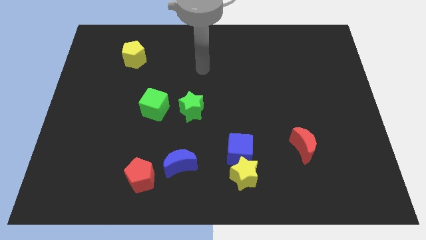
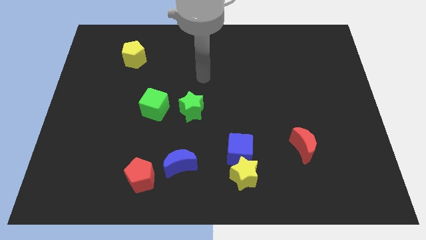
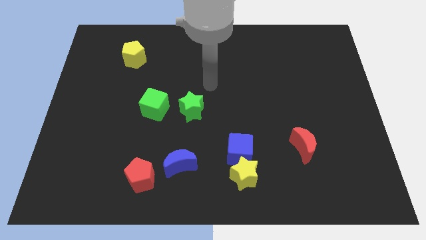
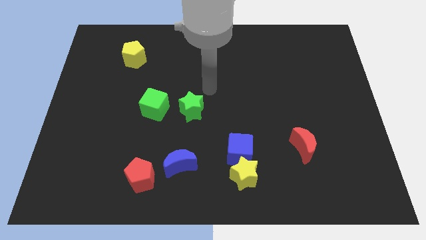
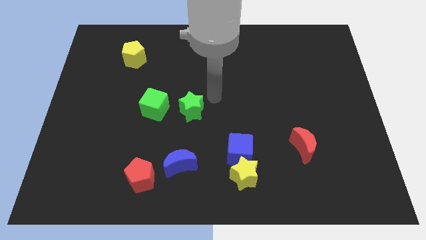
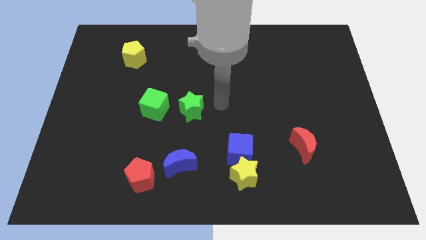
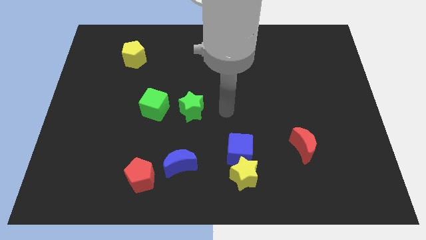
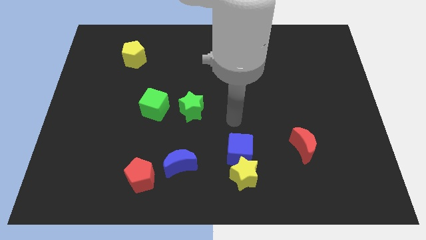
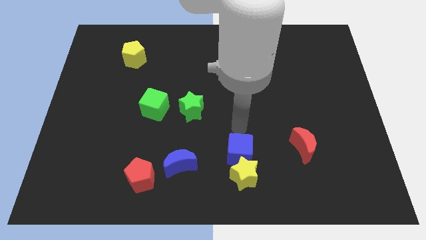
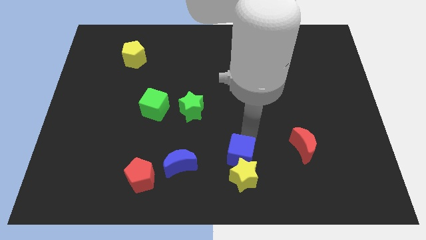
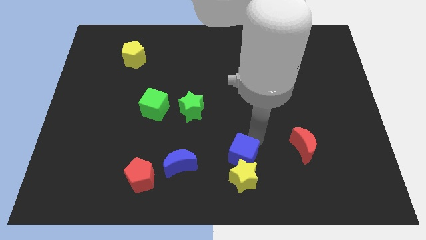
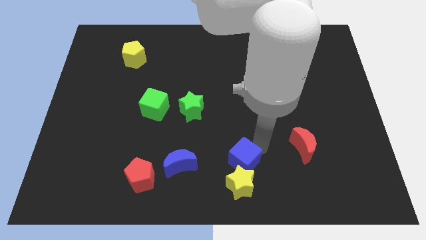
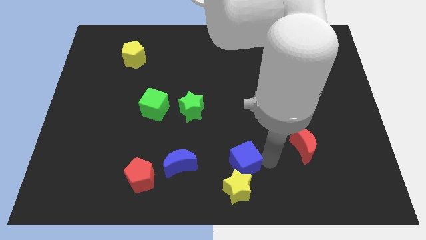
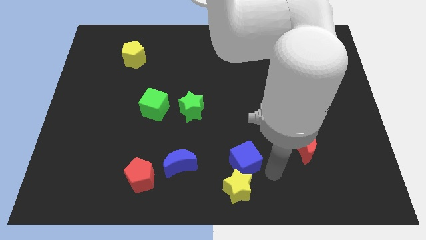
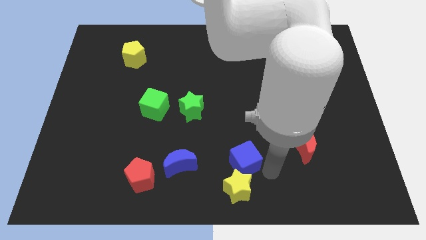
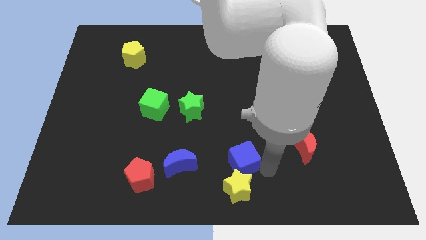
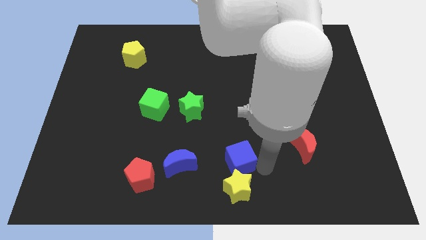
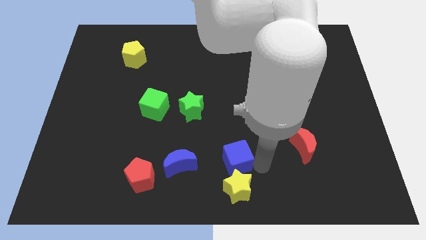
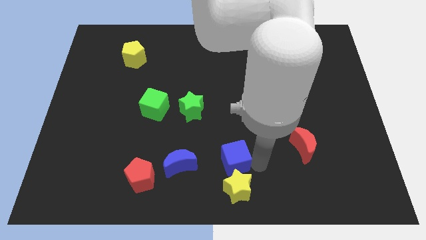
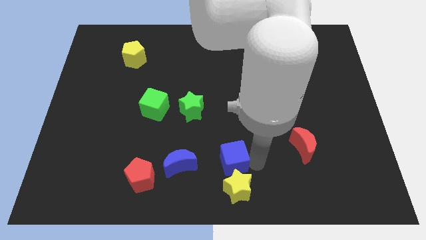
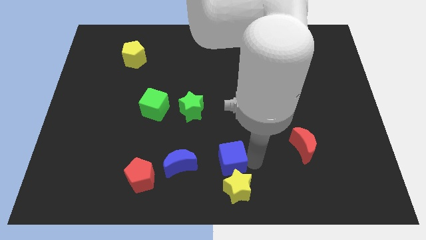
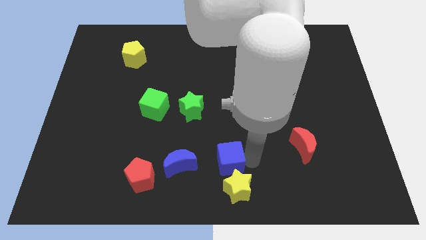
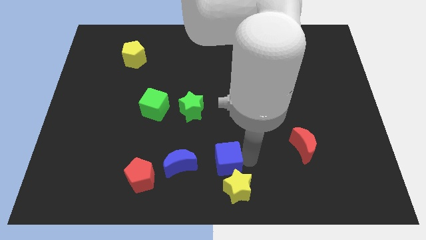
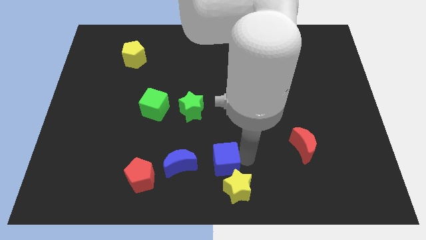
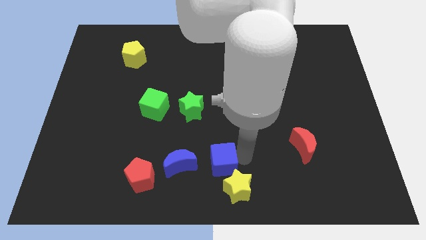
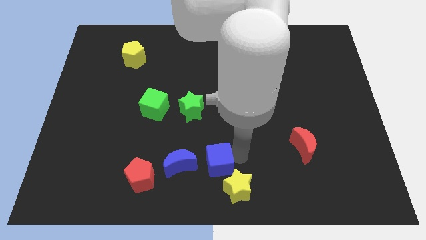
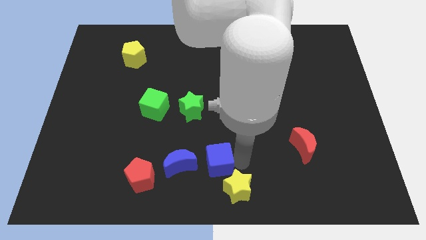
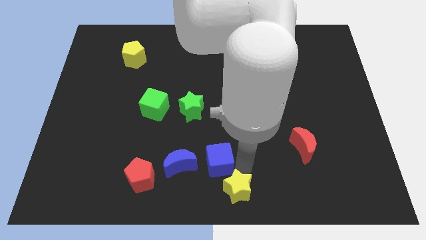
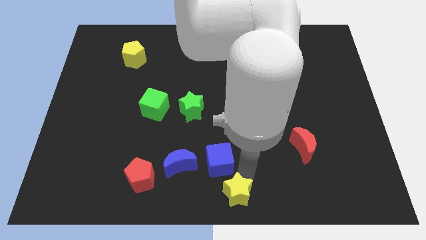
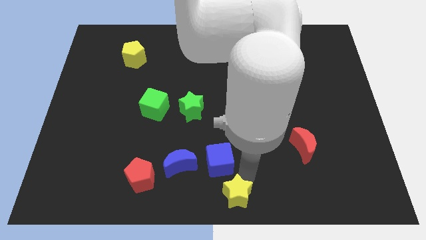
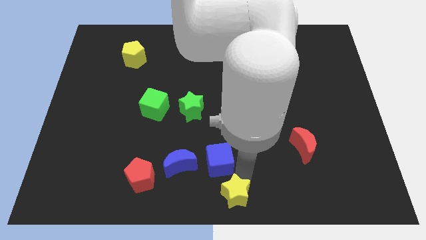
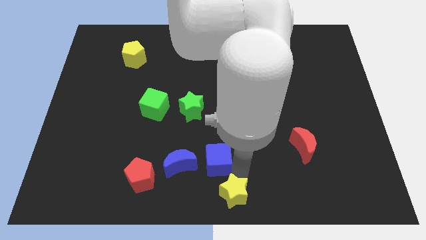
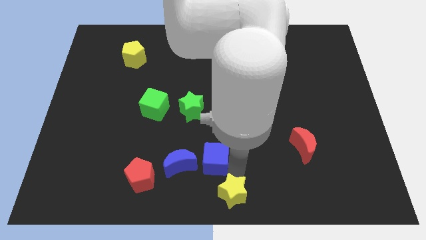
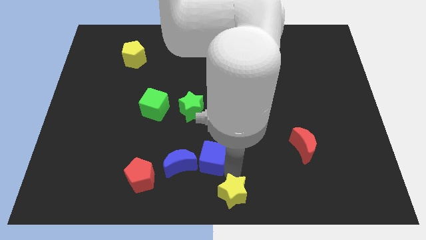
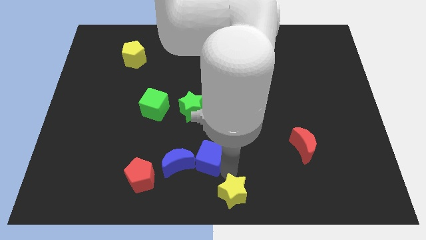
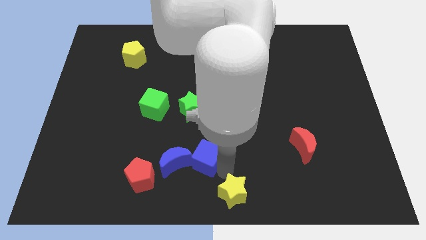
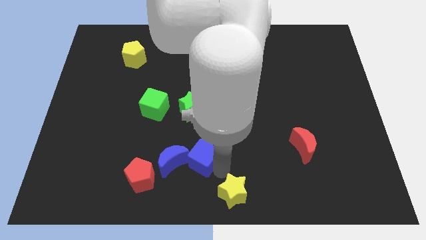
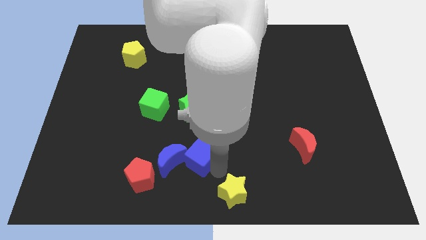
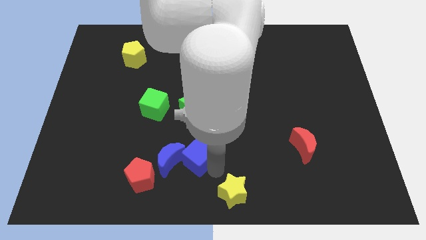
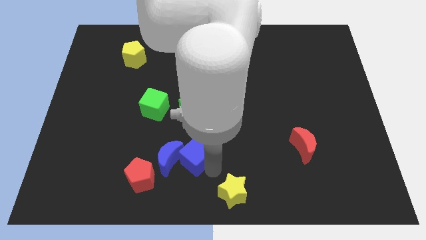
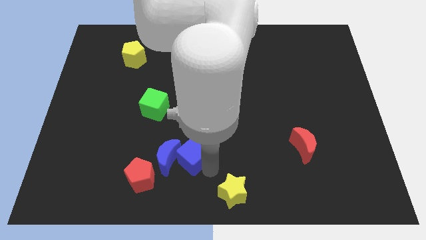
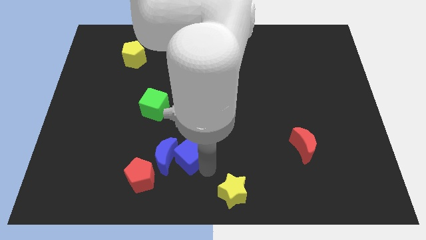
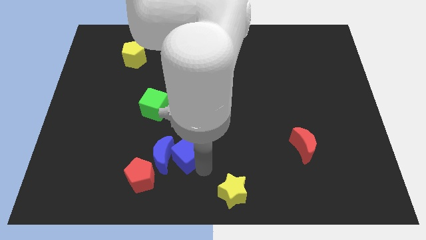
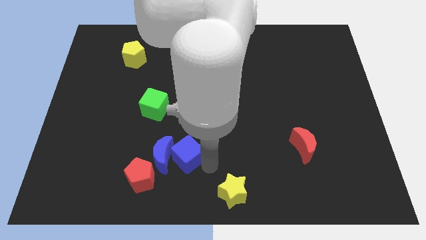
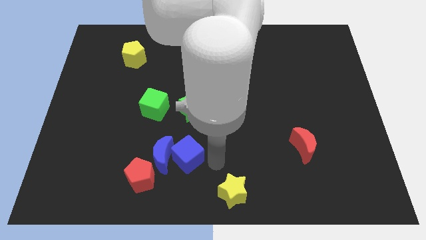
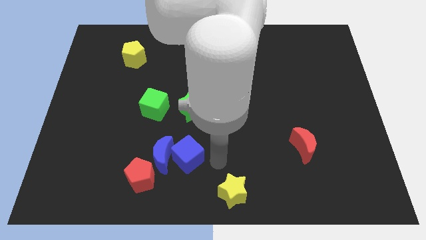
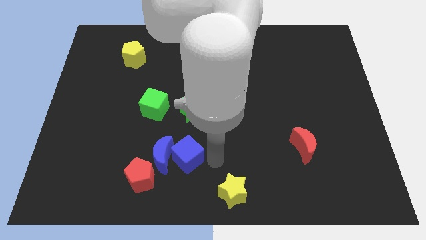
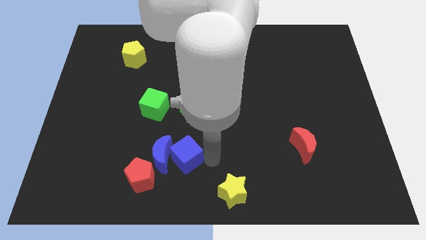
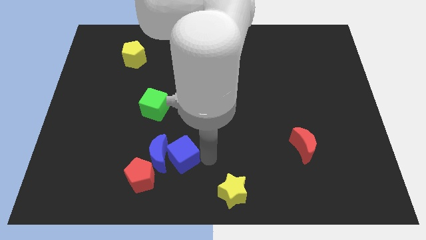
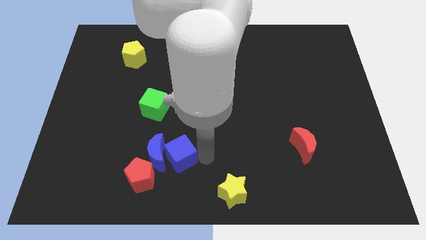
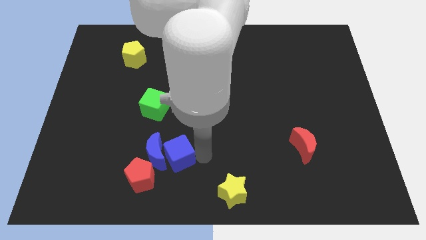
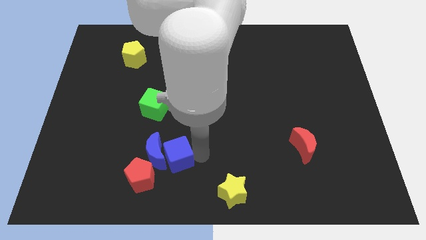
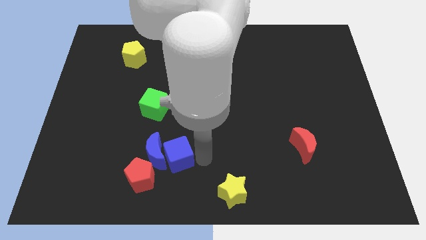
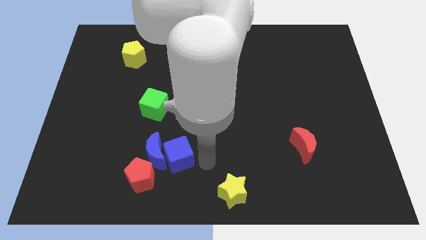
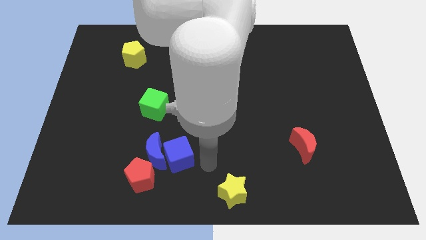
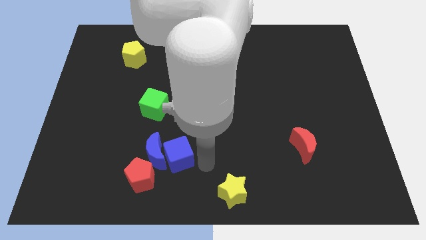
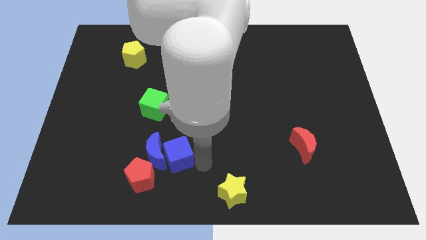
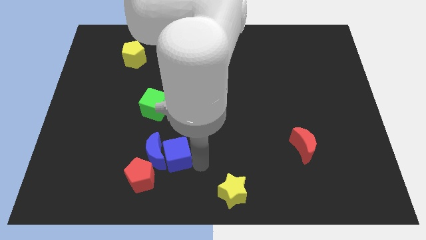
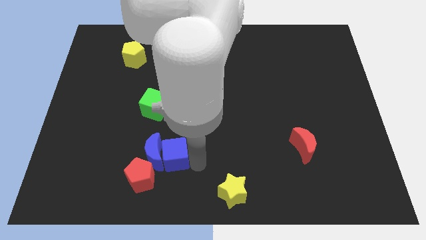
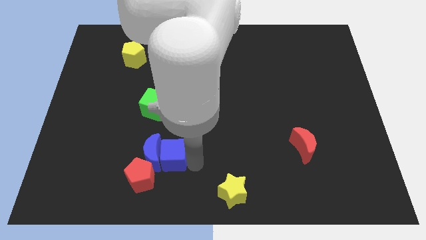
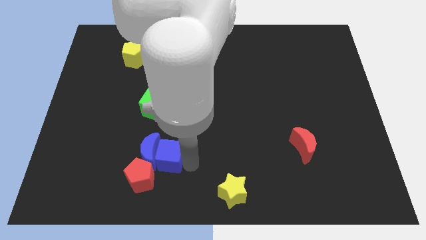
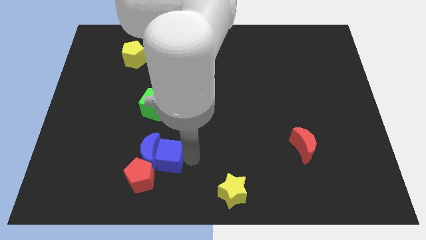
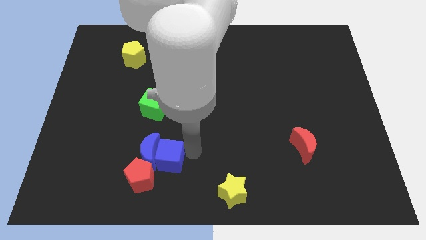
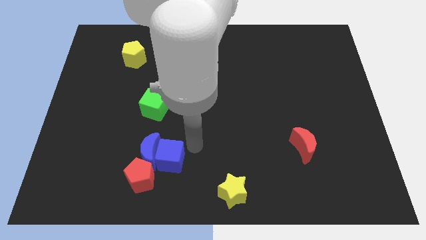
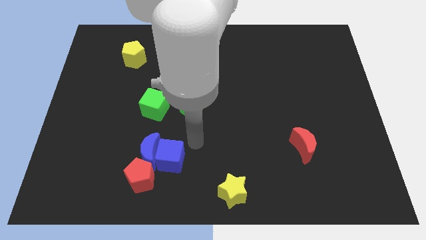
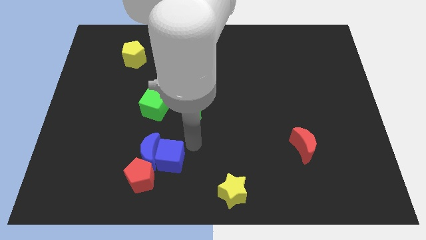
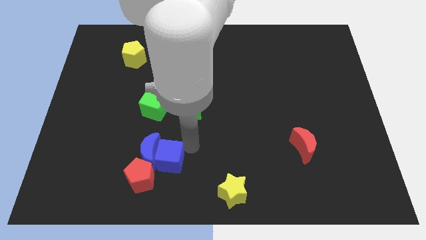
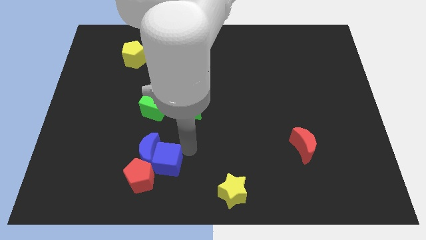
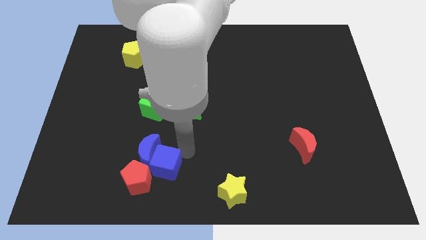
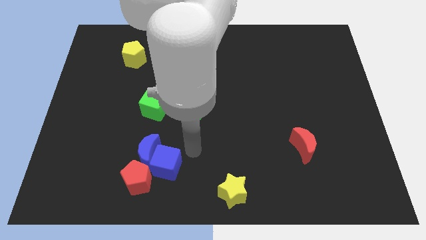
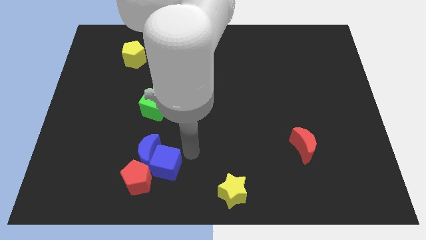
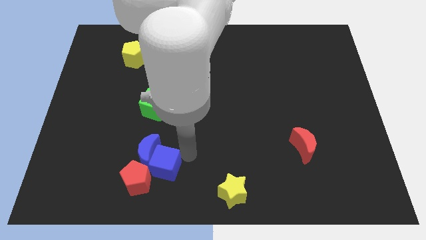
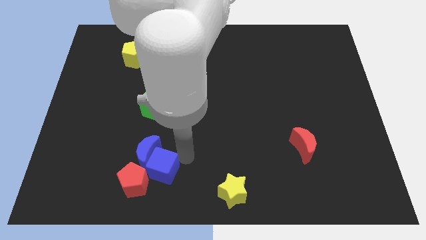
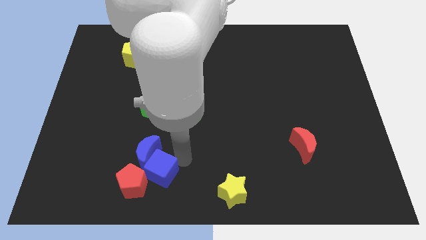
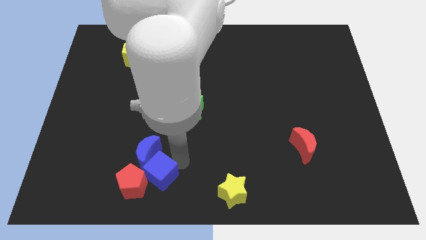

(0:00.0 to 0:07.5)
move the blue cube close to the red pentagon
